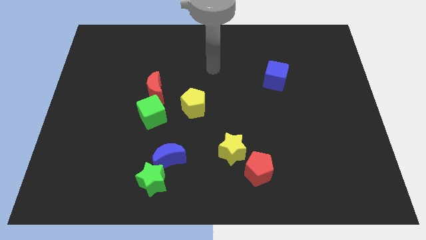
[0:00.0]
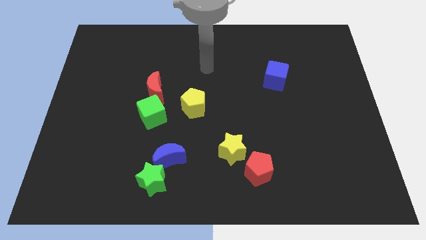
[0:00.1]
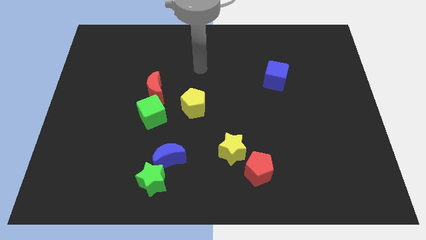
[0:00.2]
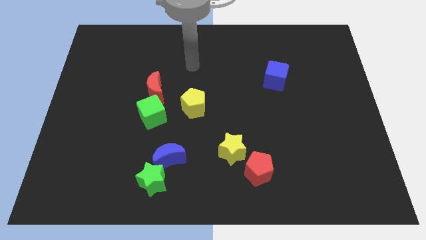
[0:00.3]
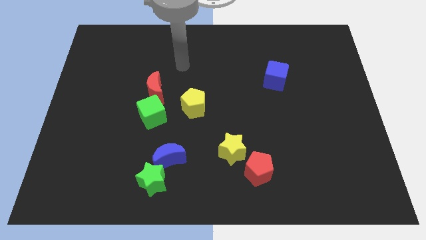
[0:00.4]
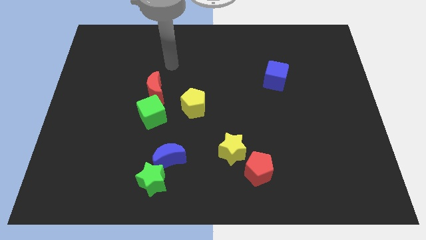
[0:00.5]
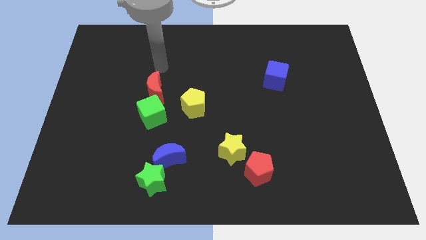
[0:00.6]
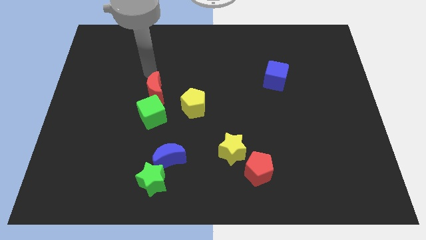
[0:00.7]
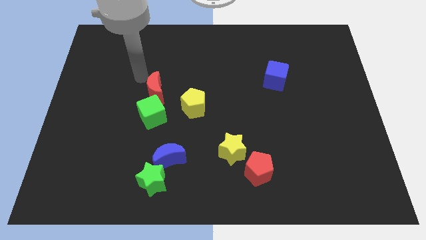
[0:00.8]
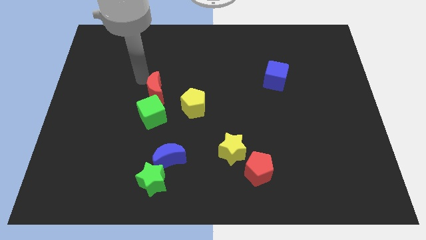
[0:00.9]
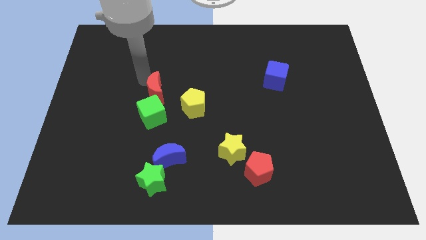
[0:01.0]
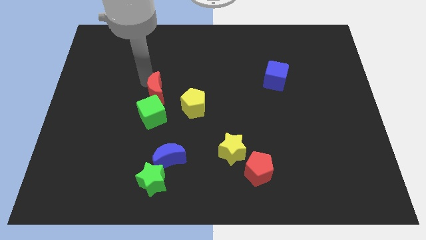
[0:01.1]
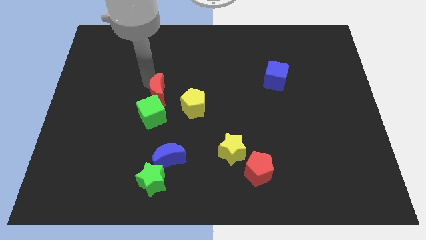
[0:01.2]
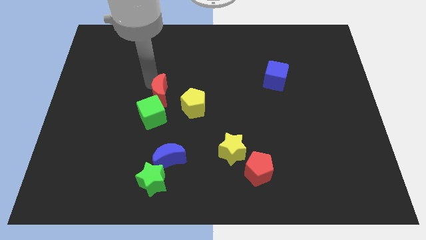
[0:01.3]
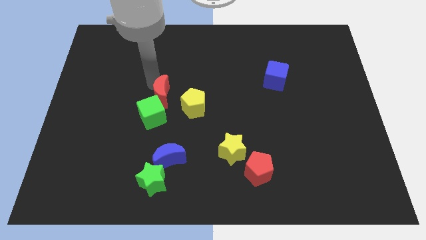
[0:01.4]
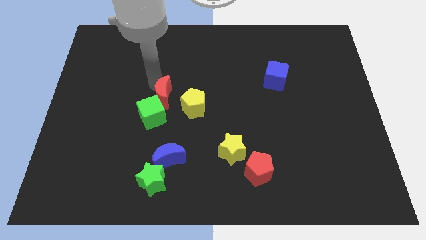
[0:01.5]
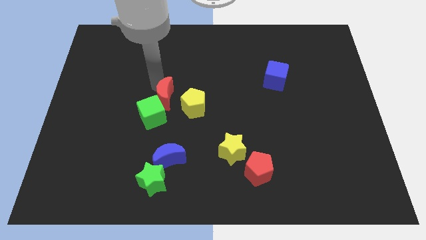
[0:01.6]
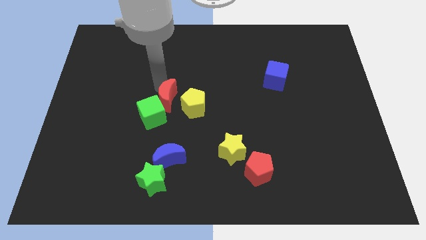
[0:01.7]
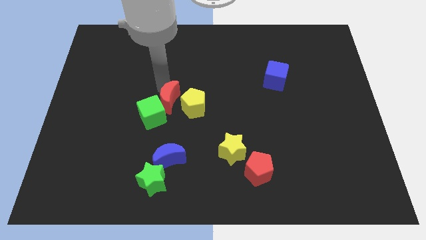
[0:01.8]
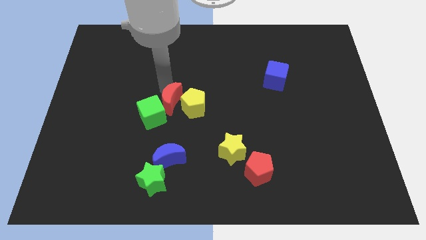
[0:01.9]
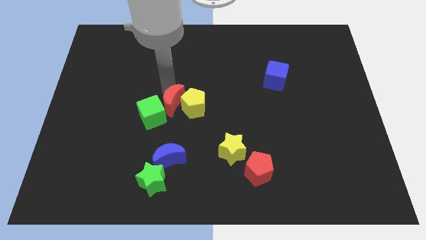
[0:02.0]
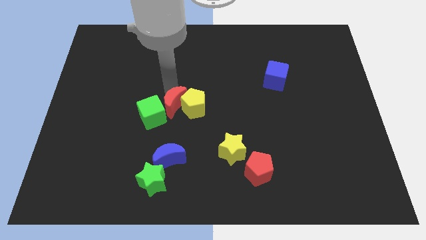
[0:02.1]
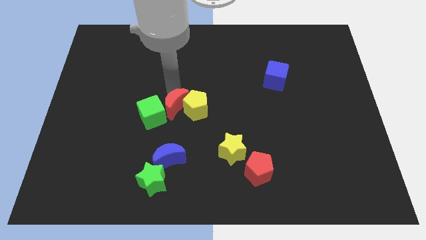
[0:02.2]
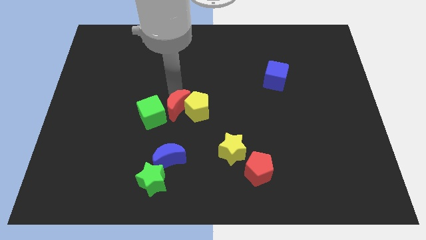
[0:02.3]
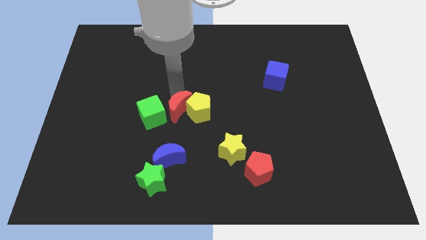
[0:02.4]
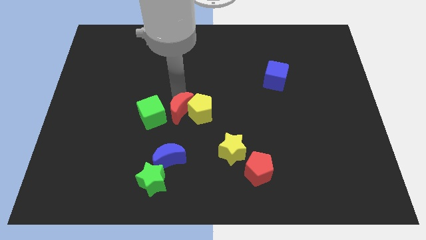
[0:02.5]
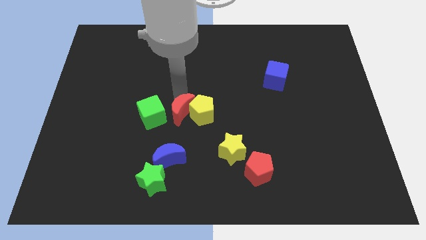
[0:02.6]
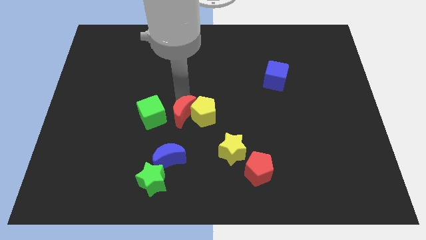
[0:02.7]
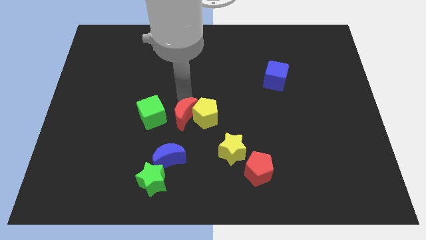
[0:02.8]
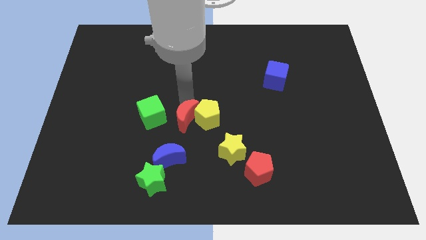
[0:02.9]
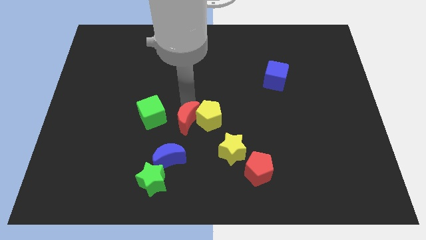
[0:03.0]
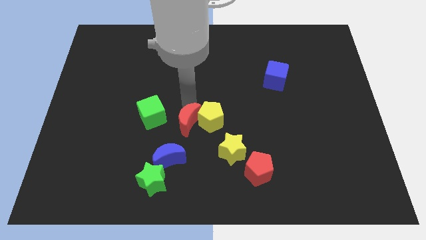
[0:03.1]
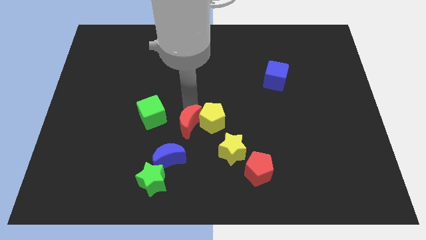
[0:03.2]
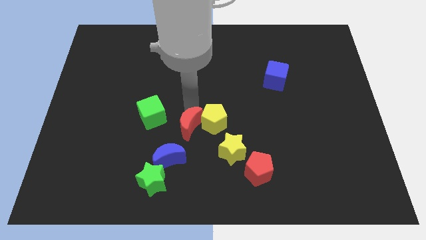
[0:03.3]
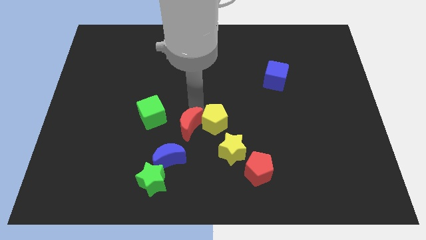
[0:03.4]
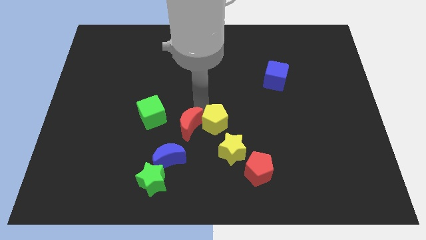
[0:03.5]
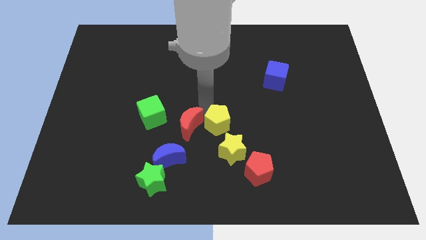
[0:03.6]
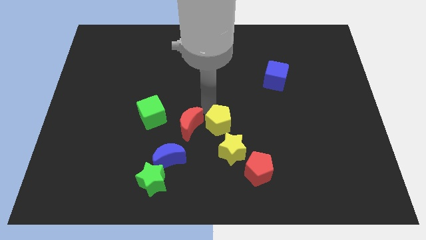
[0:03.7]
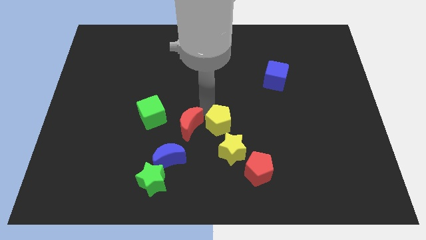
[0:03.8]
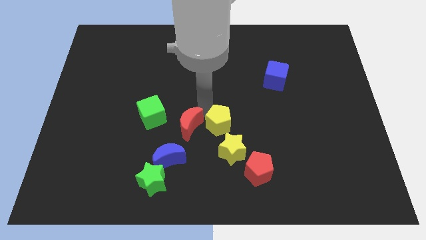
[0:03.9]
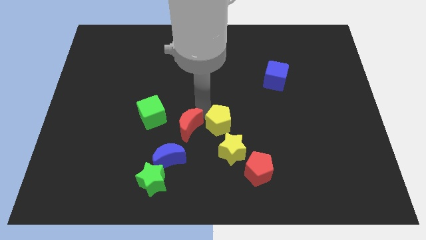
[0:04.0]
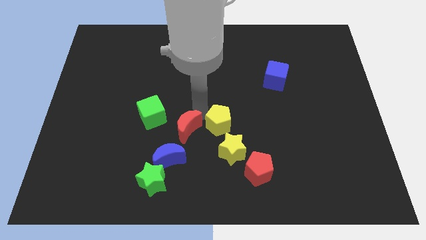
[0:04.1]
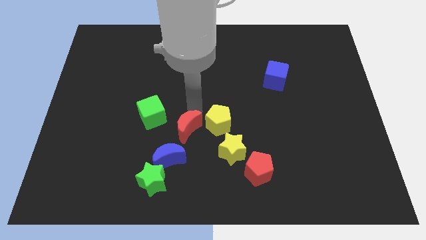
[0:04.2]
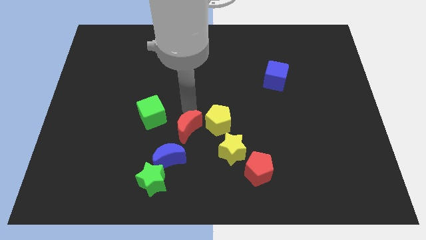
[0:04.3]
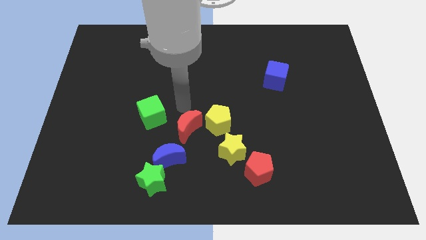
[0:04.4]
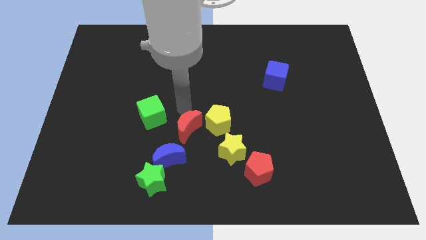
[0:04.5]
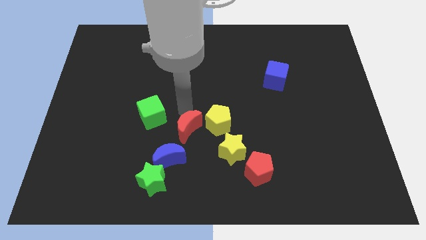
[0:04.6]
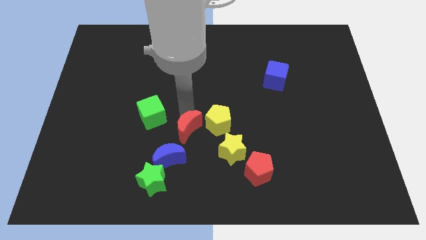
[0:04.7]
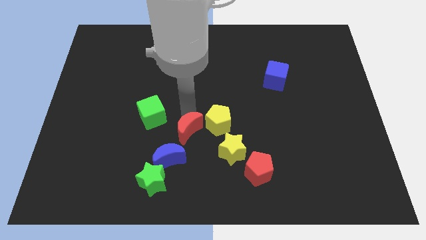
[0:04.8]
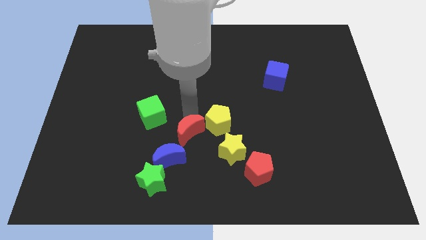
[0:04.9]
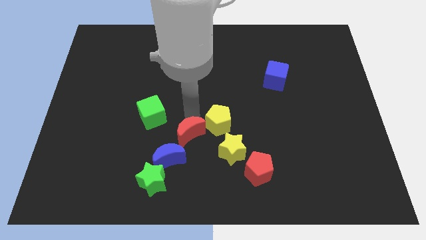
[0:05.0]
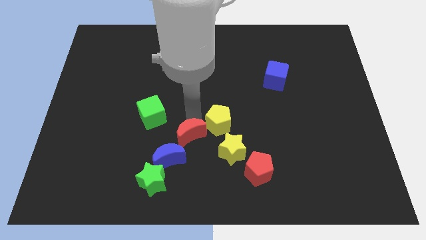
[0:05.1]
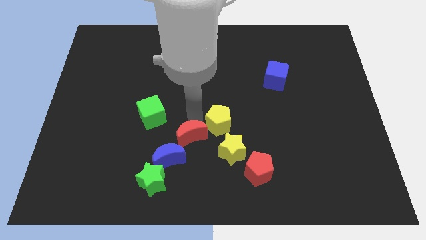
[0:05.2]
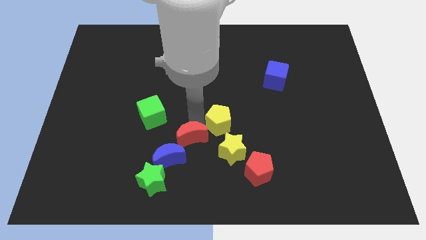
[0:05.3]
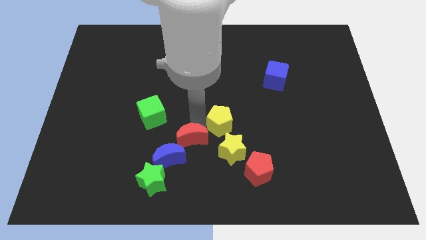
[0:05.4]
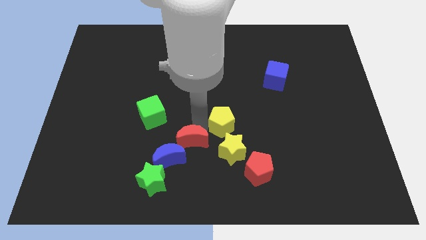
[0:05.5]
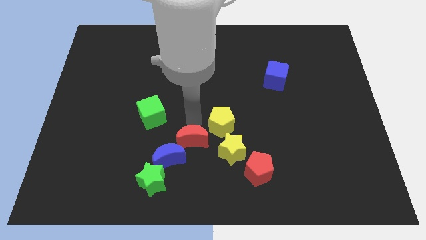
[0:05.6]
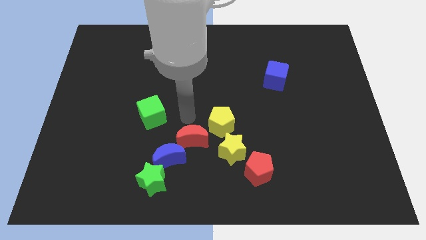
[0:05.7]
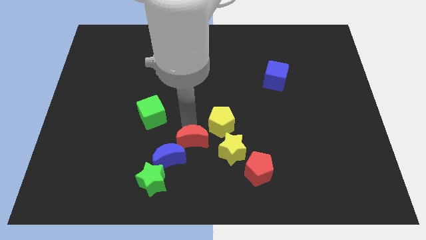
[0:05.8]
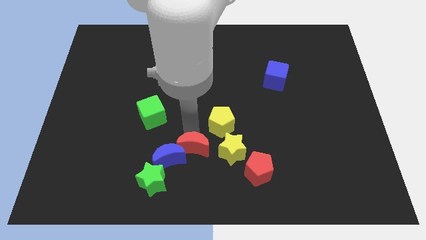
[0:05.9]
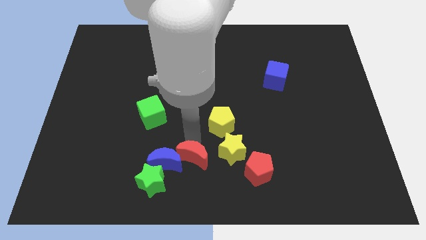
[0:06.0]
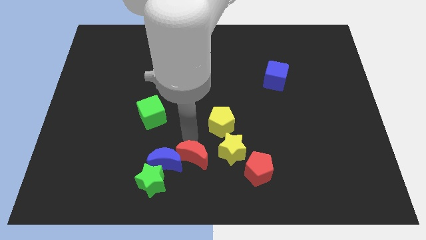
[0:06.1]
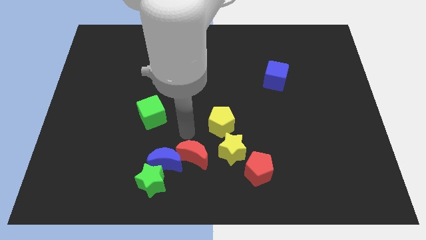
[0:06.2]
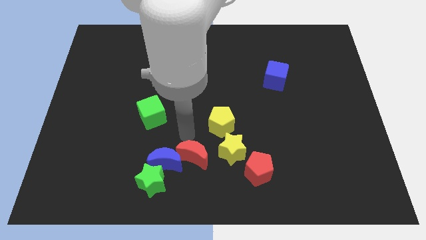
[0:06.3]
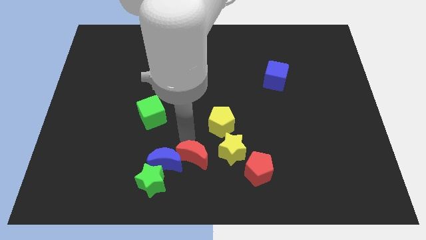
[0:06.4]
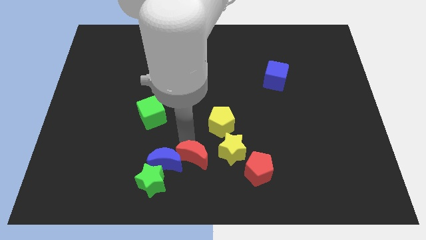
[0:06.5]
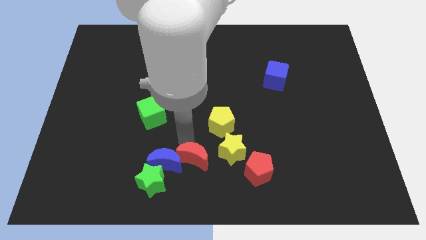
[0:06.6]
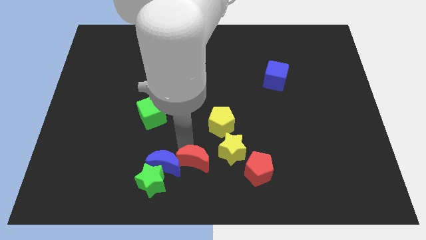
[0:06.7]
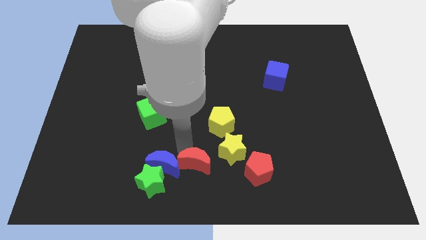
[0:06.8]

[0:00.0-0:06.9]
put the red moon right of the green star
